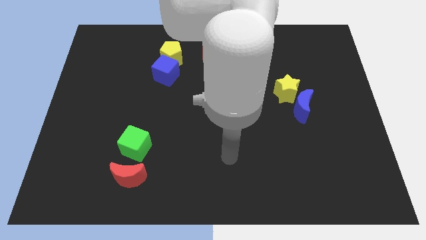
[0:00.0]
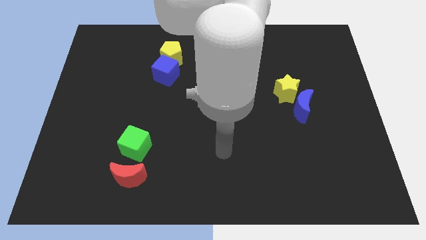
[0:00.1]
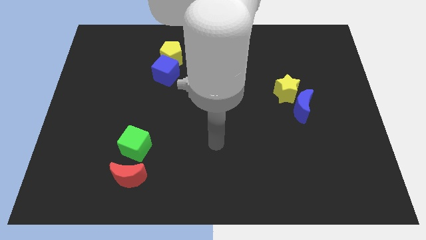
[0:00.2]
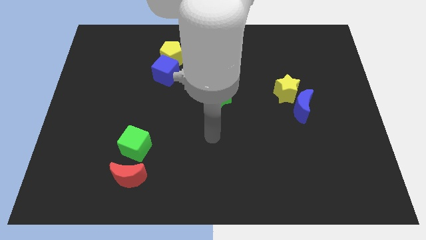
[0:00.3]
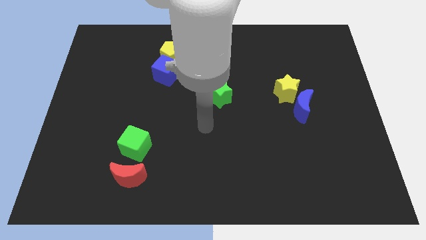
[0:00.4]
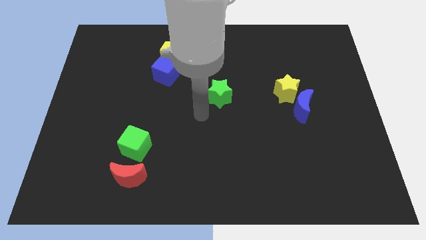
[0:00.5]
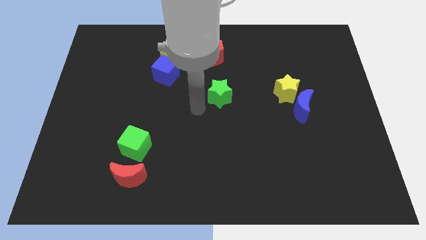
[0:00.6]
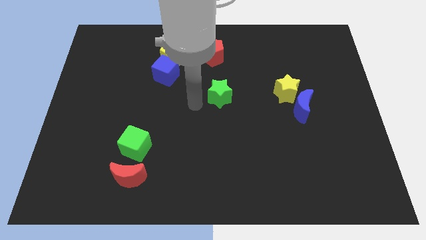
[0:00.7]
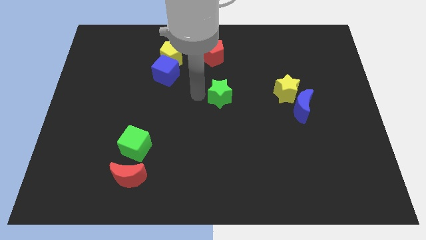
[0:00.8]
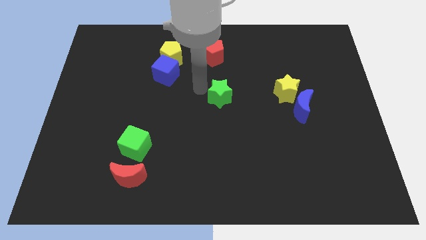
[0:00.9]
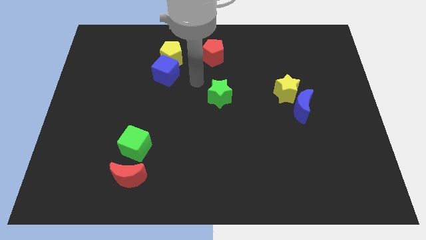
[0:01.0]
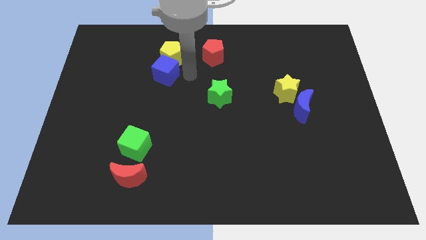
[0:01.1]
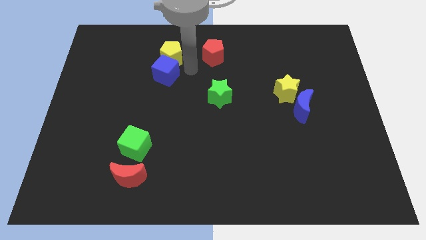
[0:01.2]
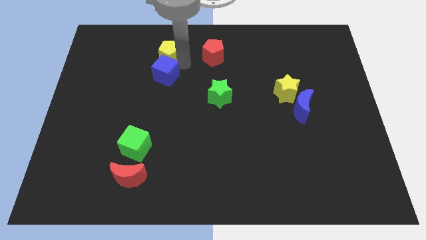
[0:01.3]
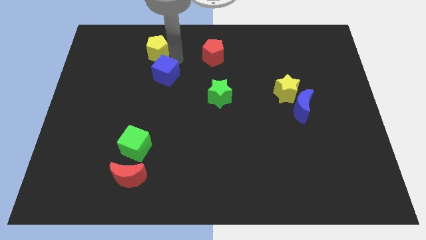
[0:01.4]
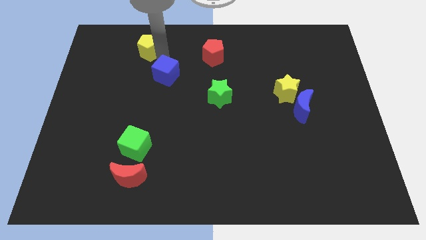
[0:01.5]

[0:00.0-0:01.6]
move the blue cube away from the yellow pentagon

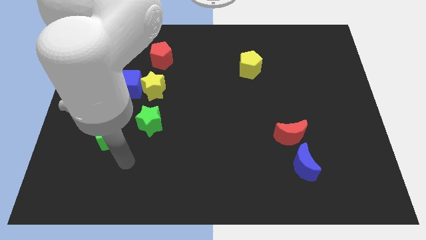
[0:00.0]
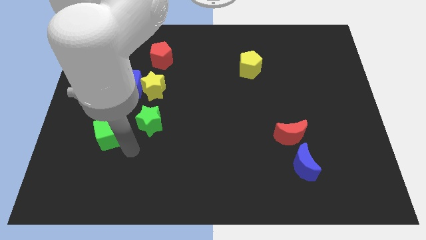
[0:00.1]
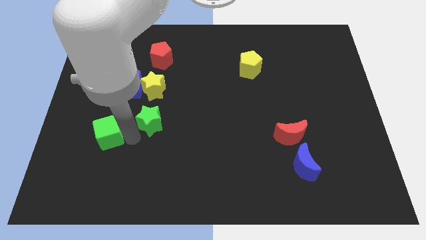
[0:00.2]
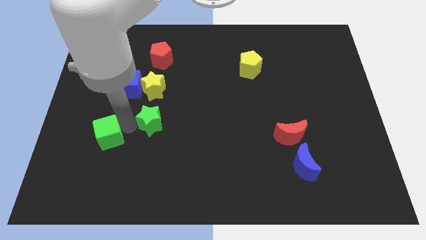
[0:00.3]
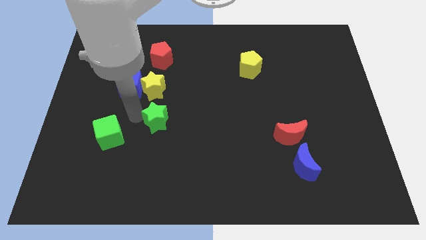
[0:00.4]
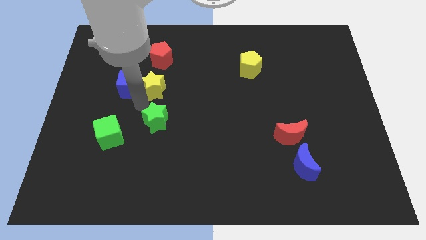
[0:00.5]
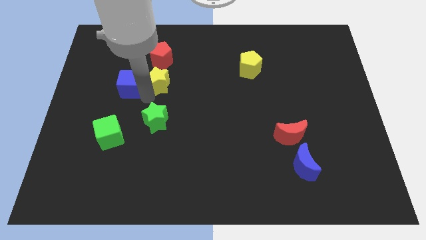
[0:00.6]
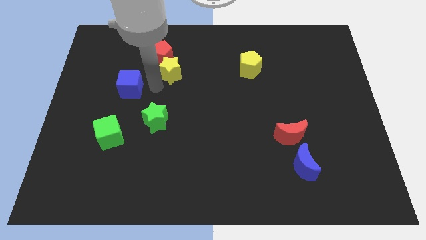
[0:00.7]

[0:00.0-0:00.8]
move the blue cube away from the yellow star

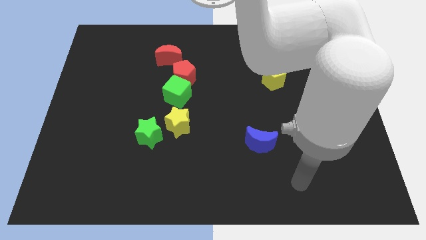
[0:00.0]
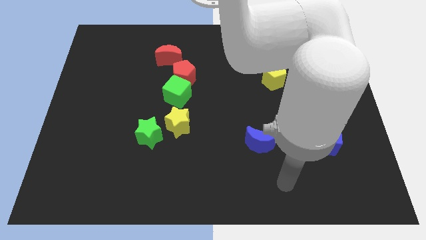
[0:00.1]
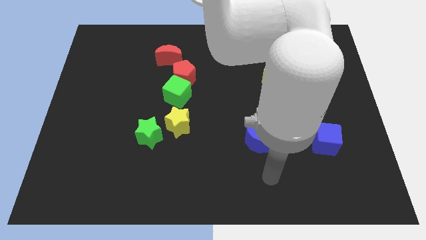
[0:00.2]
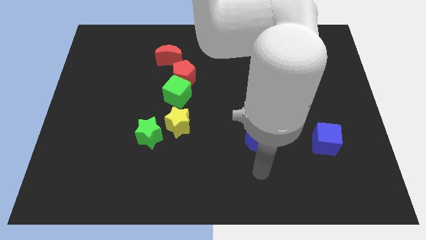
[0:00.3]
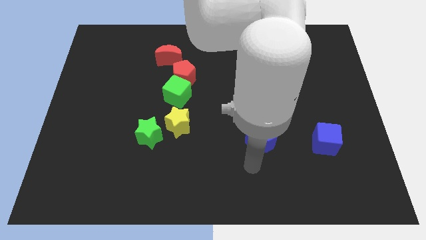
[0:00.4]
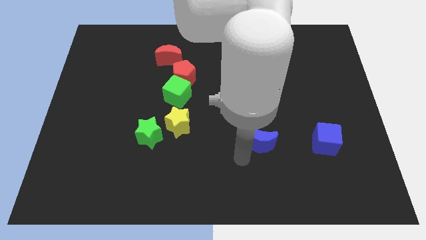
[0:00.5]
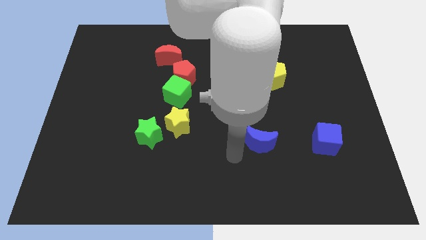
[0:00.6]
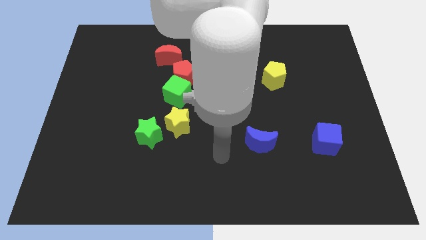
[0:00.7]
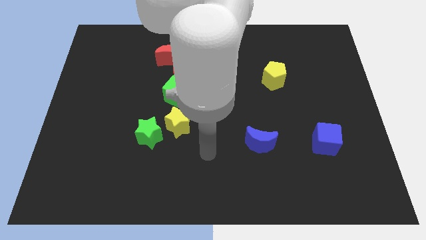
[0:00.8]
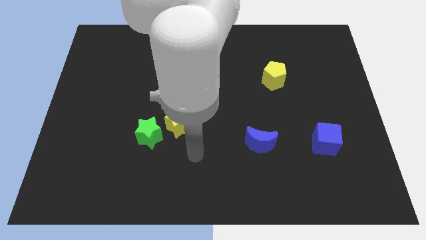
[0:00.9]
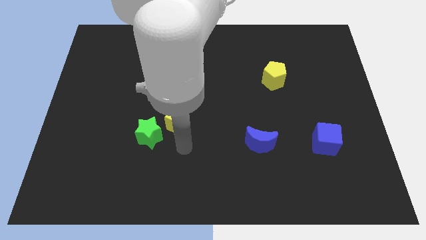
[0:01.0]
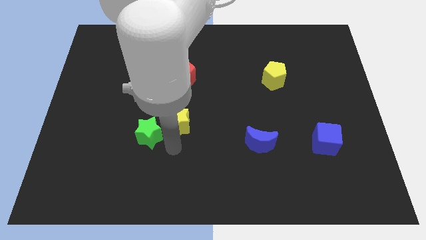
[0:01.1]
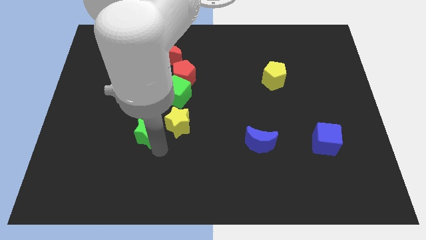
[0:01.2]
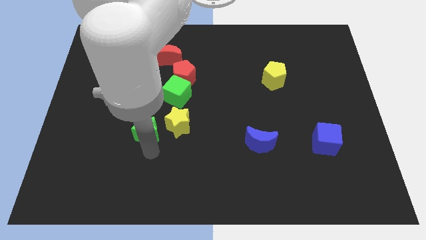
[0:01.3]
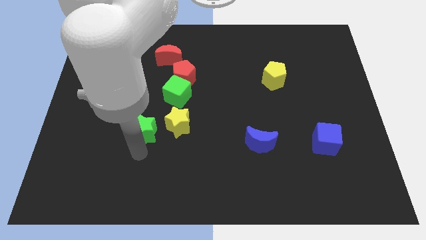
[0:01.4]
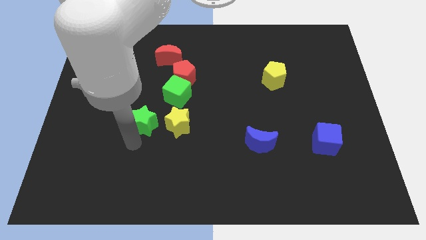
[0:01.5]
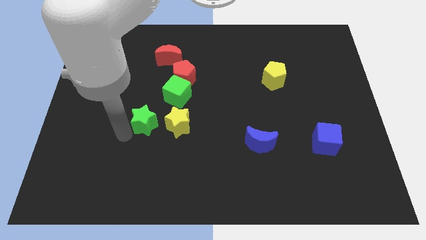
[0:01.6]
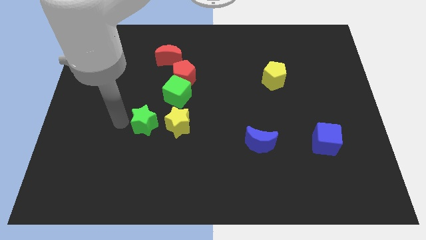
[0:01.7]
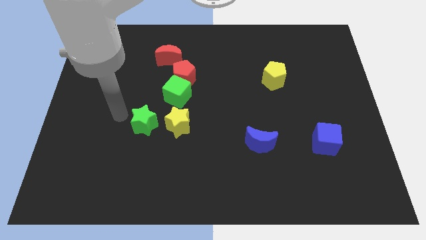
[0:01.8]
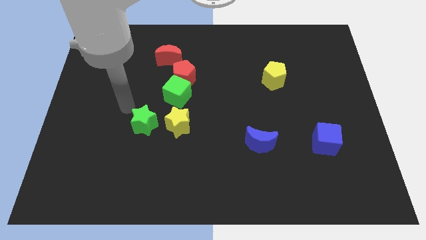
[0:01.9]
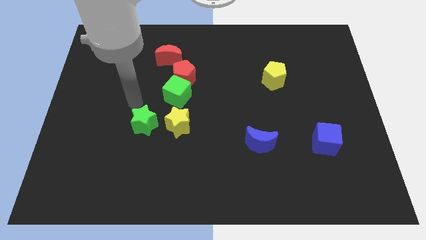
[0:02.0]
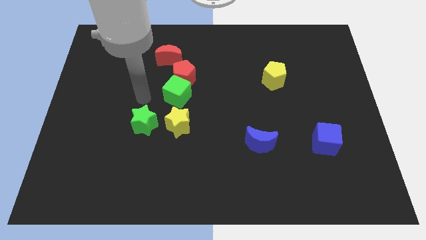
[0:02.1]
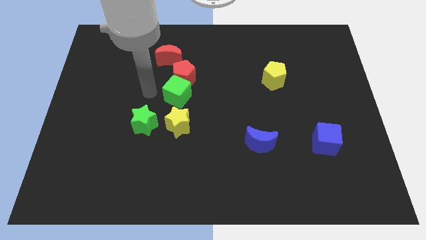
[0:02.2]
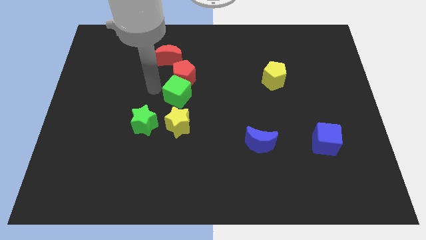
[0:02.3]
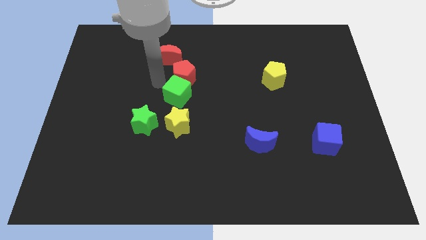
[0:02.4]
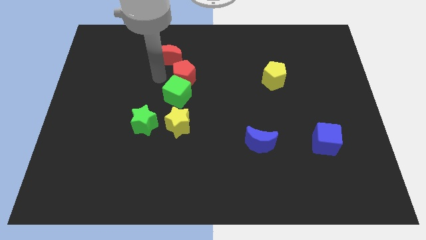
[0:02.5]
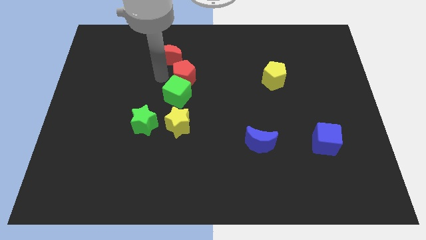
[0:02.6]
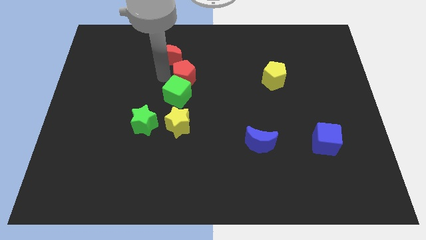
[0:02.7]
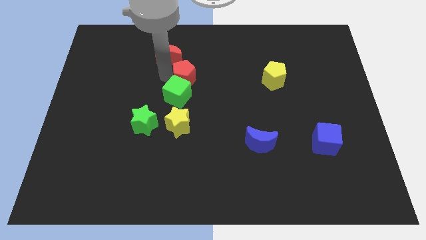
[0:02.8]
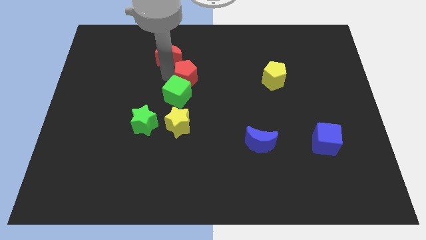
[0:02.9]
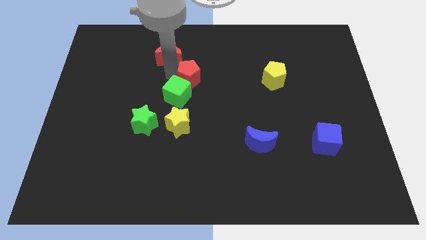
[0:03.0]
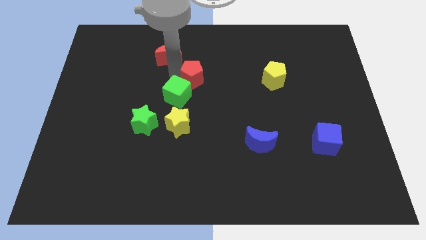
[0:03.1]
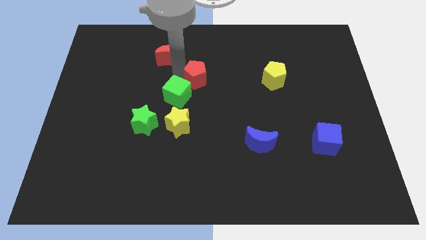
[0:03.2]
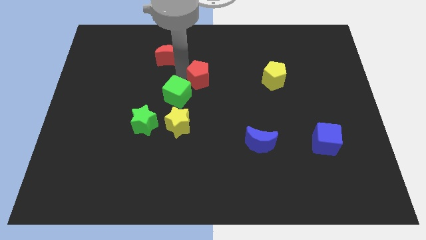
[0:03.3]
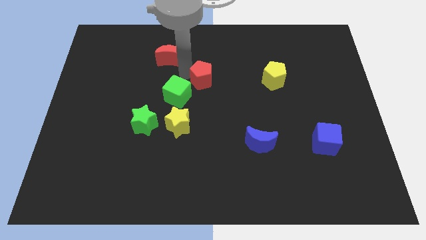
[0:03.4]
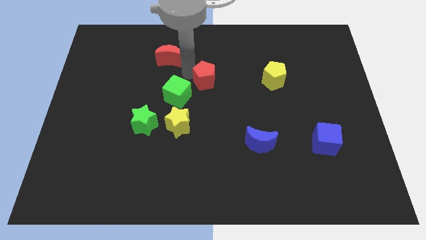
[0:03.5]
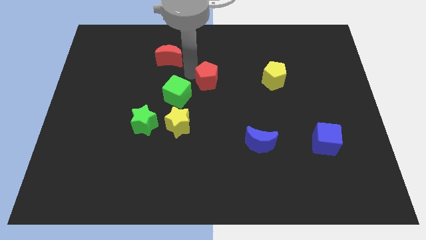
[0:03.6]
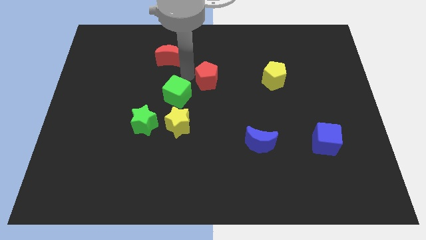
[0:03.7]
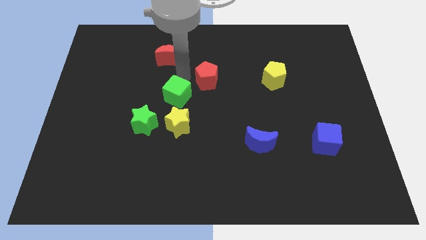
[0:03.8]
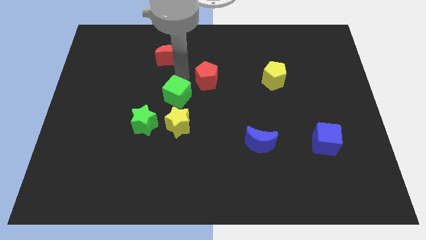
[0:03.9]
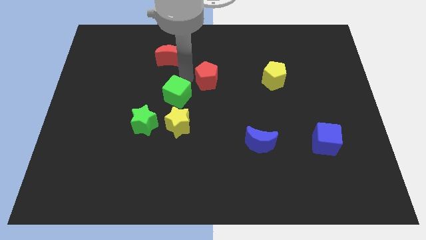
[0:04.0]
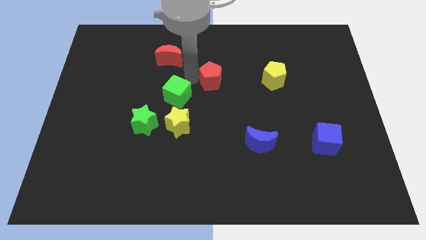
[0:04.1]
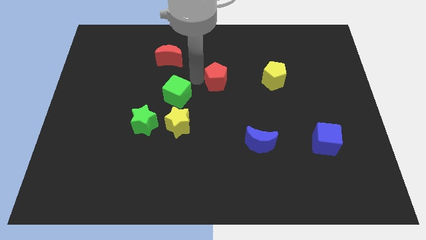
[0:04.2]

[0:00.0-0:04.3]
move the red pentagon away from the green cube and red moon

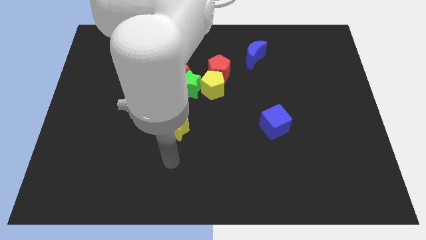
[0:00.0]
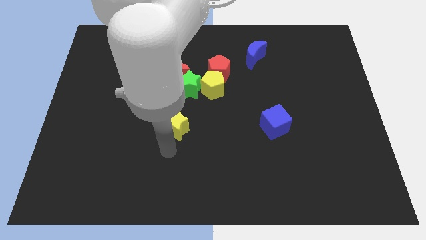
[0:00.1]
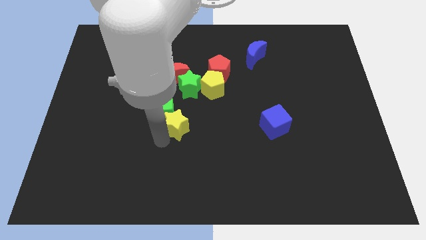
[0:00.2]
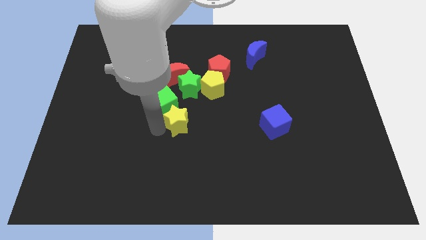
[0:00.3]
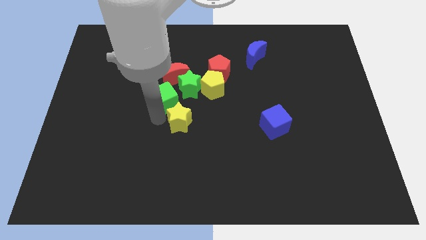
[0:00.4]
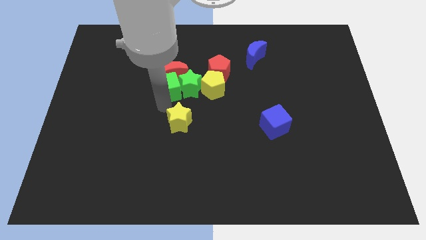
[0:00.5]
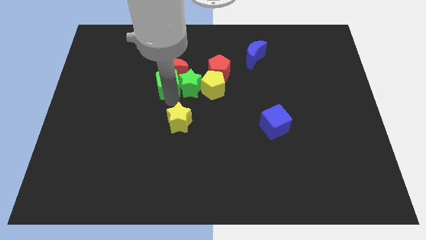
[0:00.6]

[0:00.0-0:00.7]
separate the yellow star from the green cube

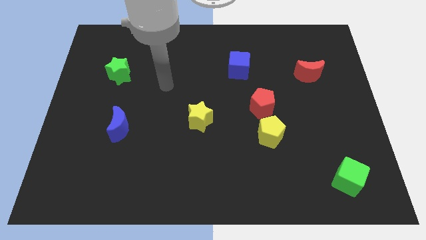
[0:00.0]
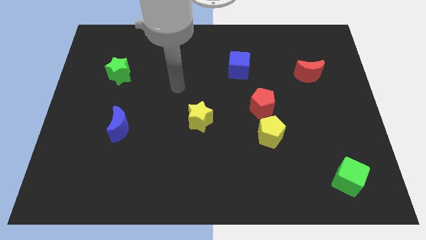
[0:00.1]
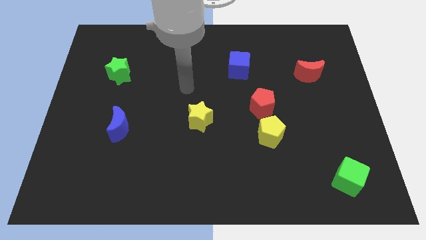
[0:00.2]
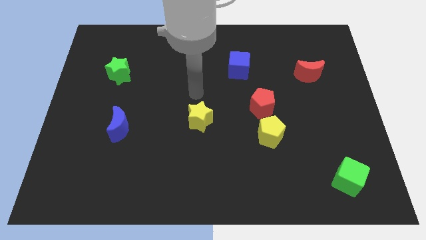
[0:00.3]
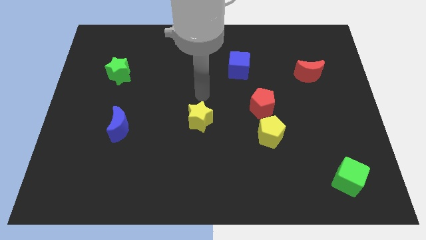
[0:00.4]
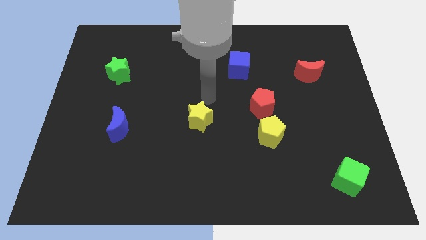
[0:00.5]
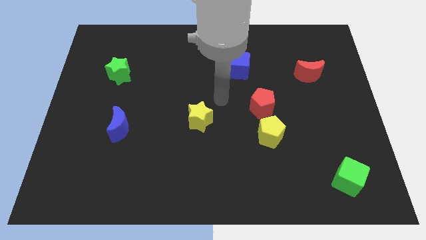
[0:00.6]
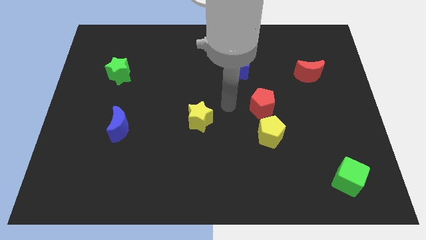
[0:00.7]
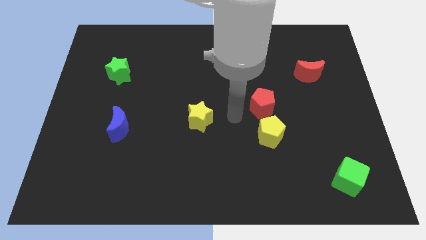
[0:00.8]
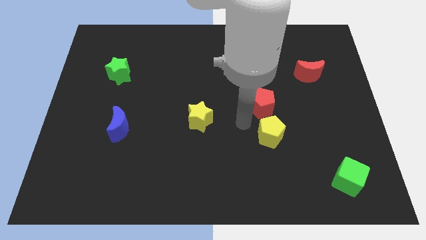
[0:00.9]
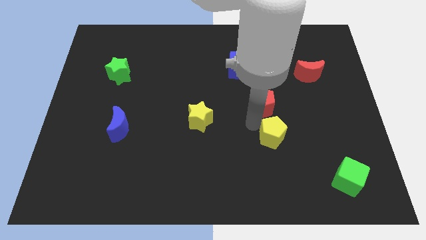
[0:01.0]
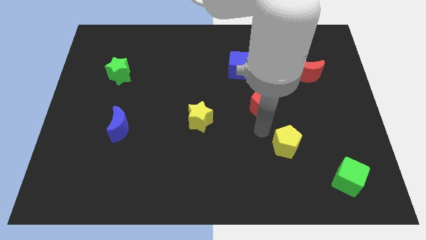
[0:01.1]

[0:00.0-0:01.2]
pull the red pentagon apart from the yellow pentagon

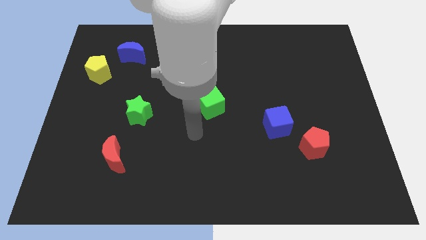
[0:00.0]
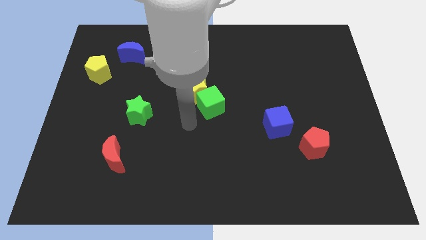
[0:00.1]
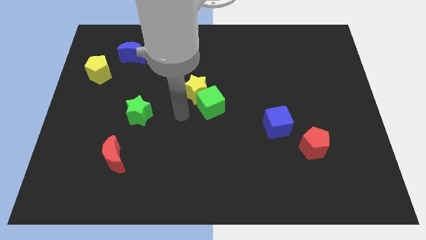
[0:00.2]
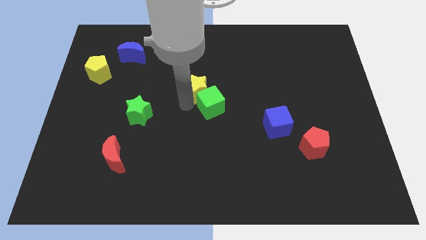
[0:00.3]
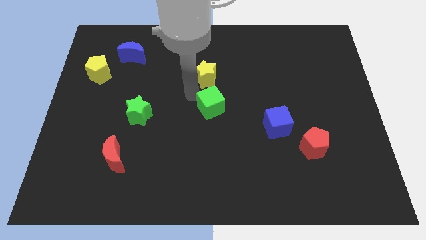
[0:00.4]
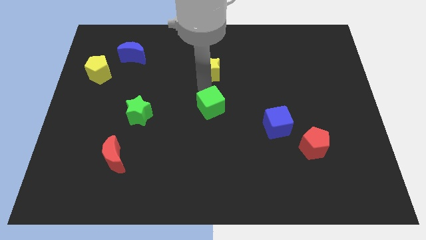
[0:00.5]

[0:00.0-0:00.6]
separate the green cube from the yellow star
